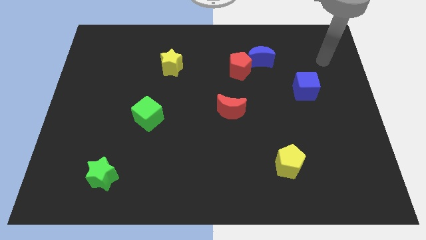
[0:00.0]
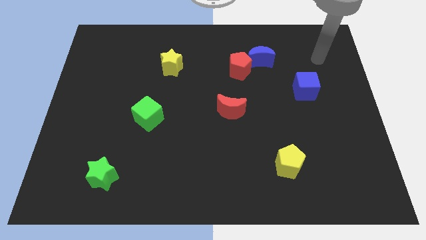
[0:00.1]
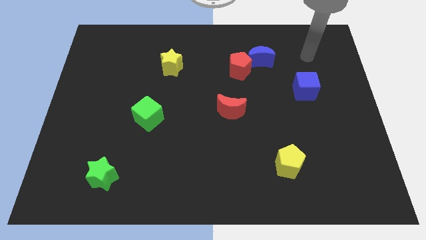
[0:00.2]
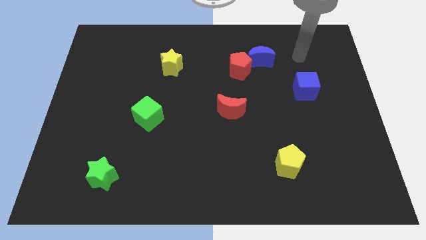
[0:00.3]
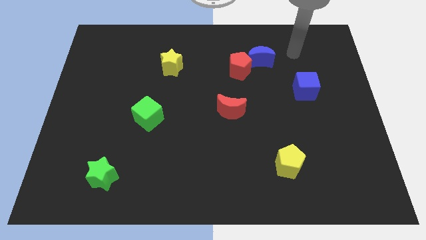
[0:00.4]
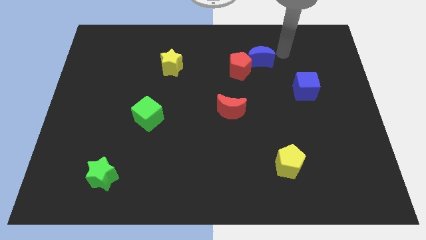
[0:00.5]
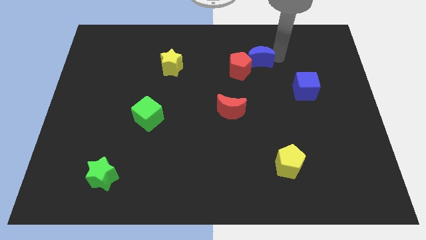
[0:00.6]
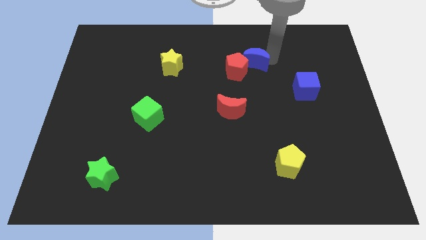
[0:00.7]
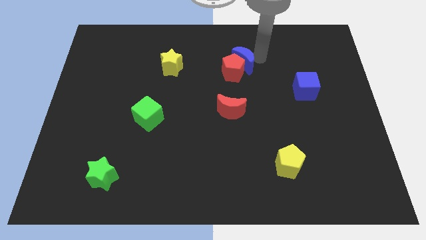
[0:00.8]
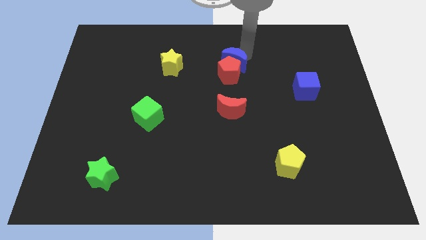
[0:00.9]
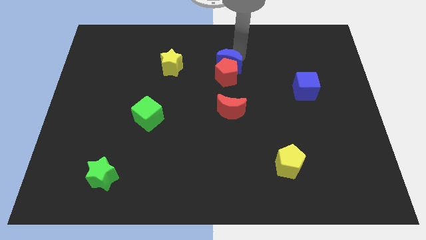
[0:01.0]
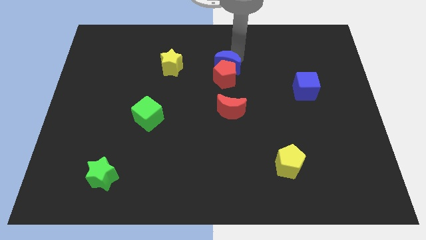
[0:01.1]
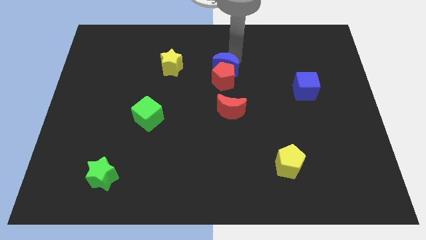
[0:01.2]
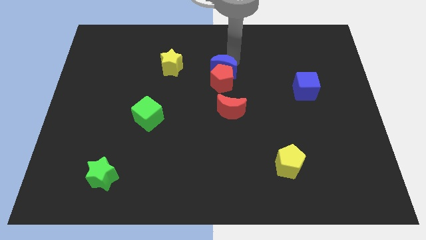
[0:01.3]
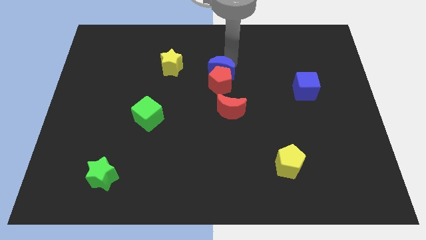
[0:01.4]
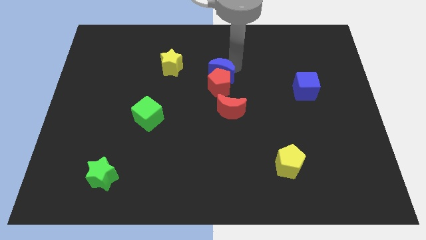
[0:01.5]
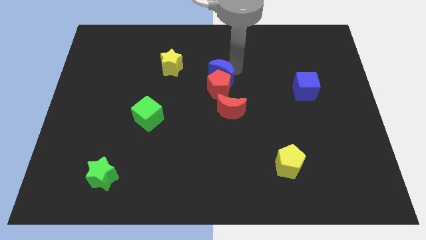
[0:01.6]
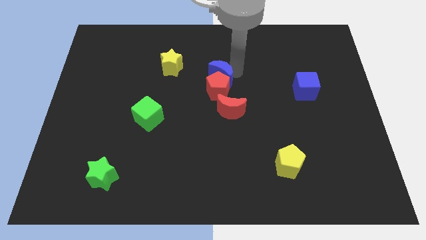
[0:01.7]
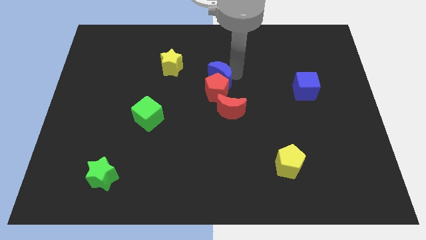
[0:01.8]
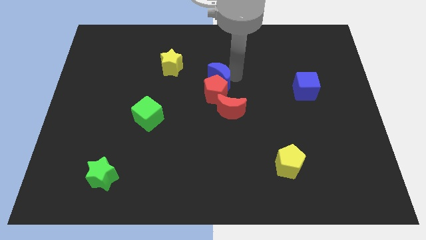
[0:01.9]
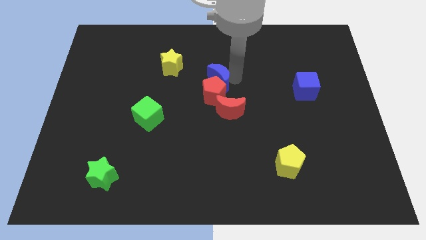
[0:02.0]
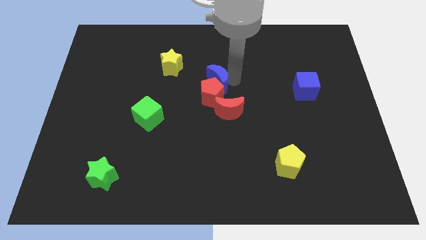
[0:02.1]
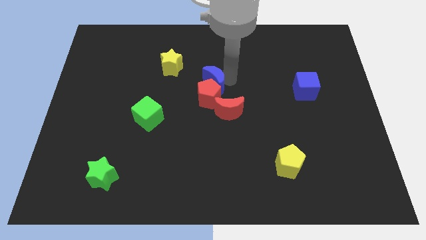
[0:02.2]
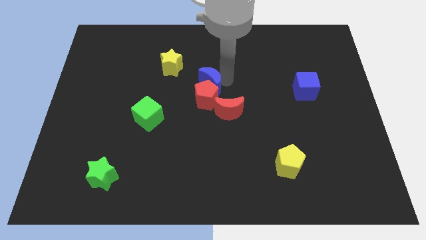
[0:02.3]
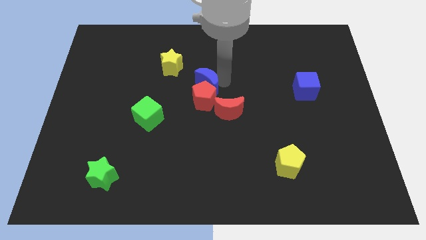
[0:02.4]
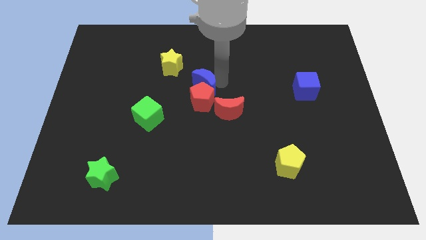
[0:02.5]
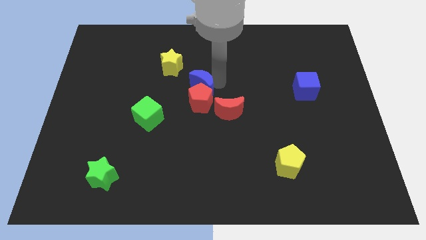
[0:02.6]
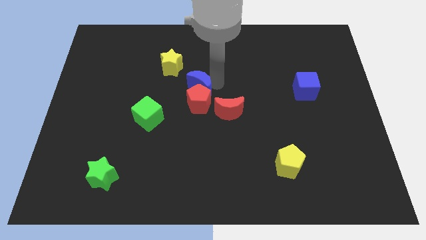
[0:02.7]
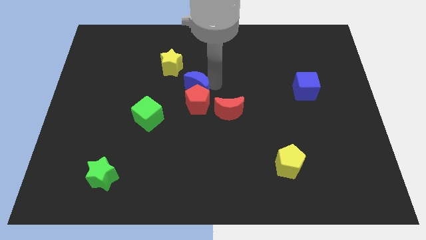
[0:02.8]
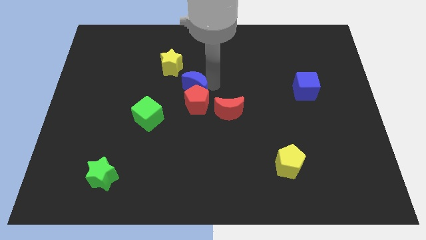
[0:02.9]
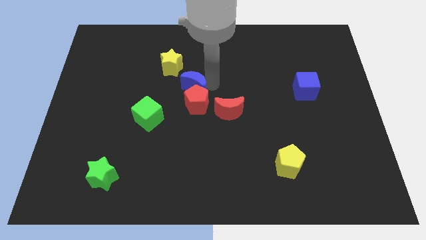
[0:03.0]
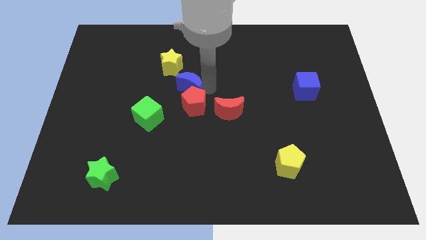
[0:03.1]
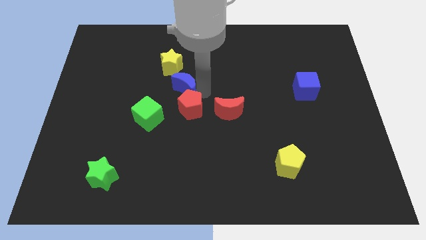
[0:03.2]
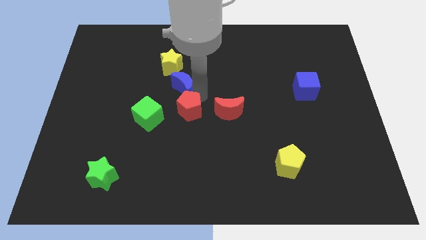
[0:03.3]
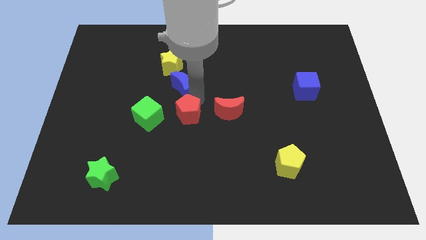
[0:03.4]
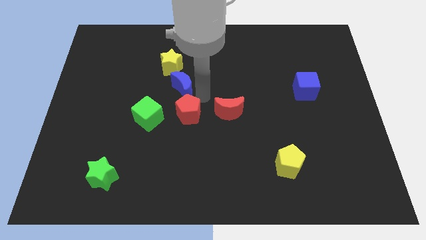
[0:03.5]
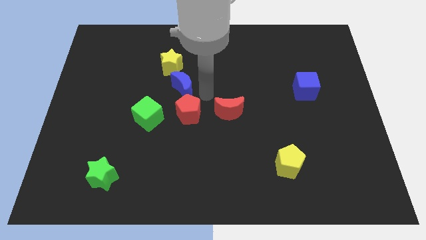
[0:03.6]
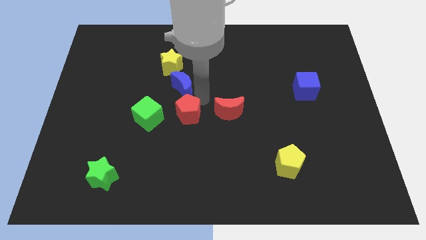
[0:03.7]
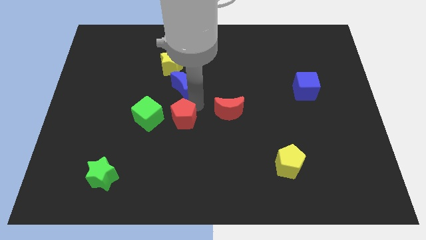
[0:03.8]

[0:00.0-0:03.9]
move the red pentagon downwards and to the left diagonally

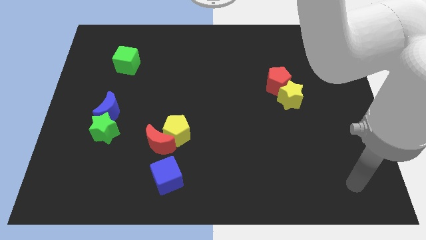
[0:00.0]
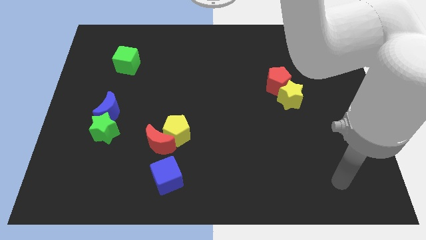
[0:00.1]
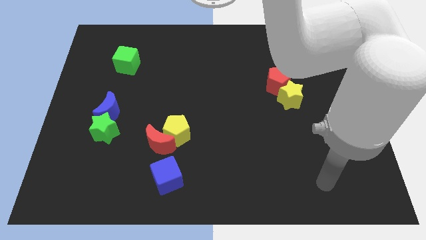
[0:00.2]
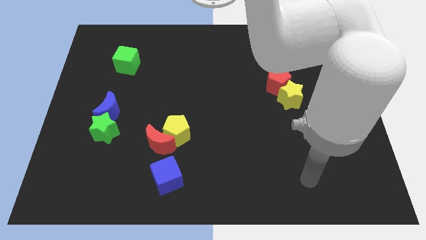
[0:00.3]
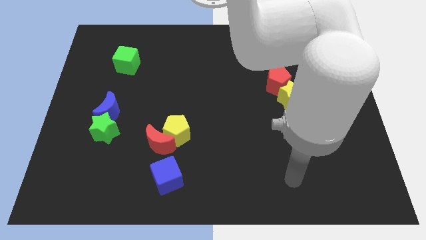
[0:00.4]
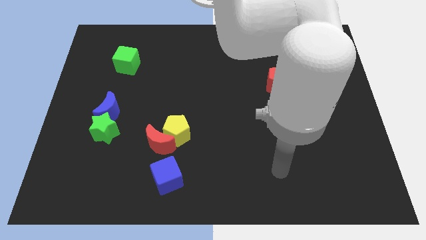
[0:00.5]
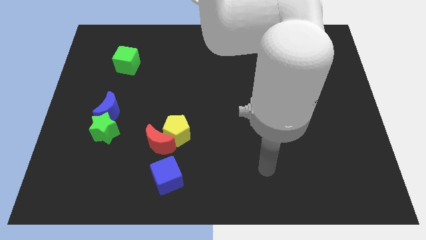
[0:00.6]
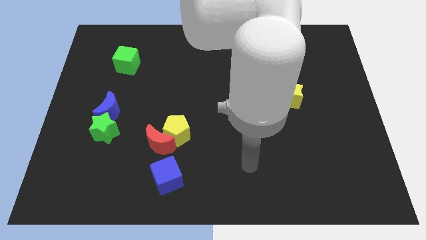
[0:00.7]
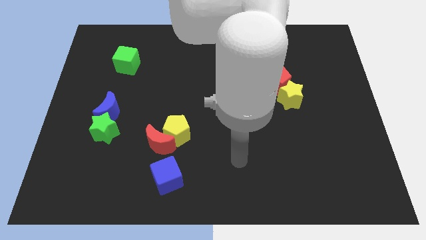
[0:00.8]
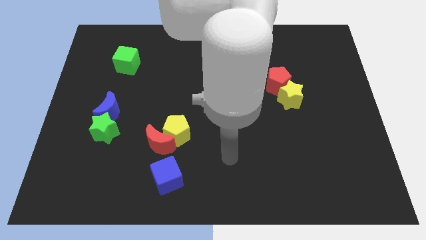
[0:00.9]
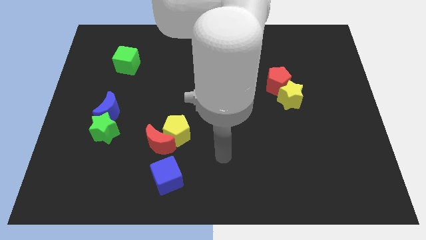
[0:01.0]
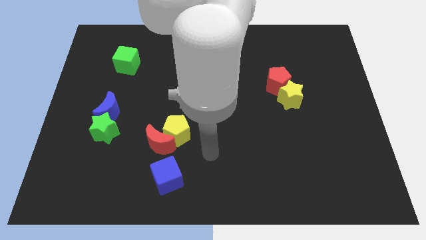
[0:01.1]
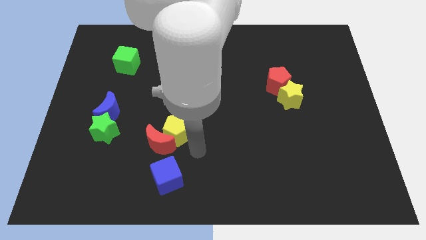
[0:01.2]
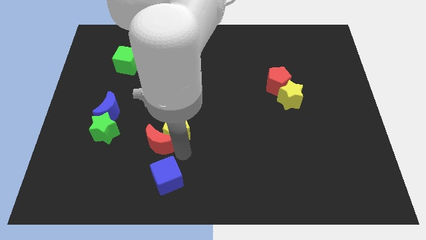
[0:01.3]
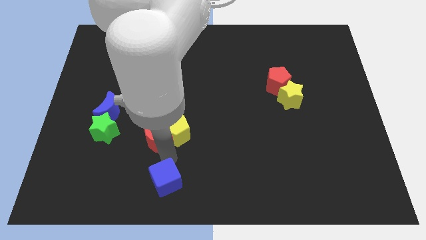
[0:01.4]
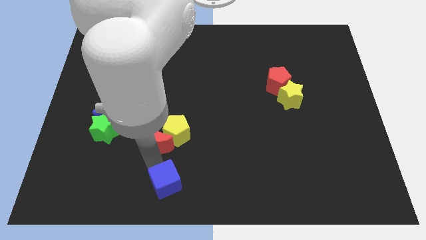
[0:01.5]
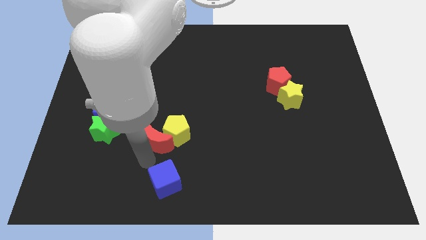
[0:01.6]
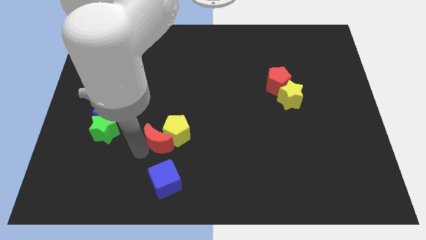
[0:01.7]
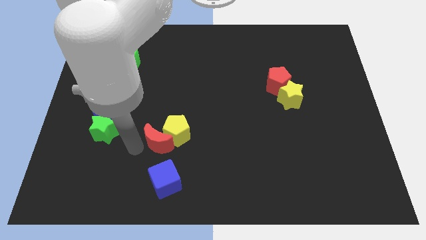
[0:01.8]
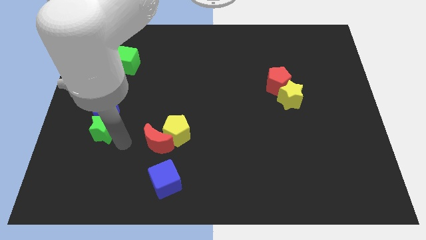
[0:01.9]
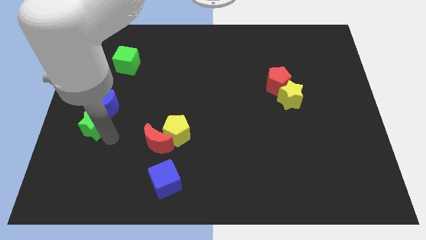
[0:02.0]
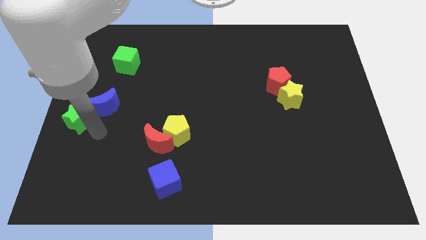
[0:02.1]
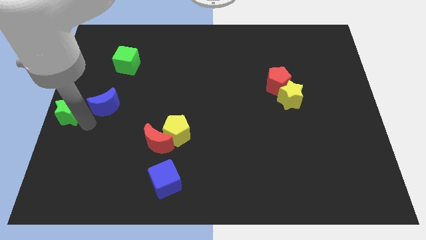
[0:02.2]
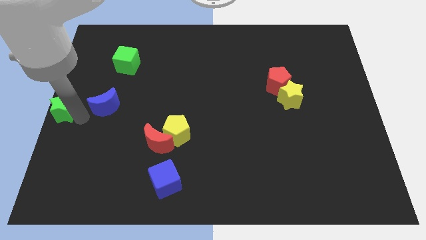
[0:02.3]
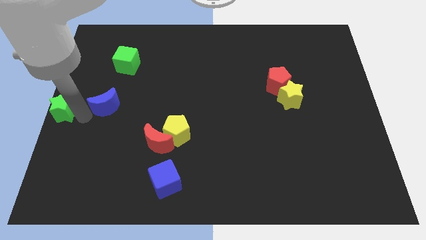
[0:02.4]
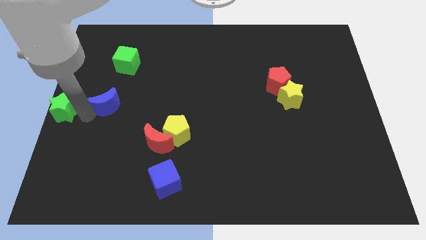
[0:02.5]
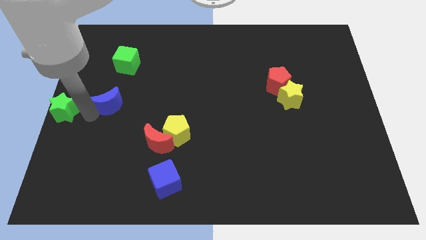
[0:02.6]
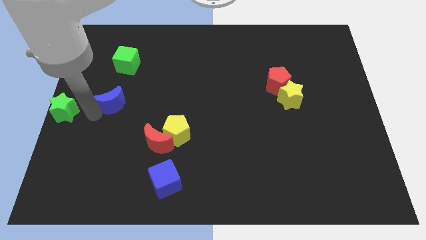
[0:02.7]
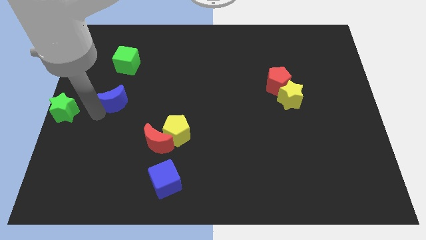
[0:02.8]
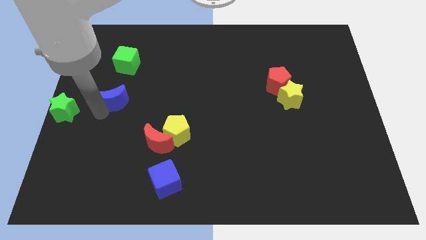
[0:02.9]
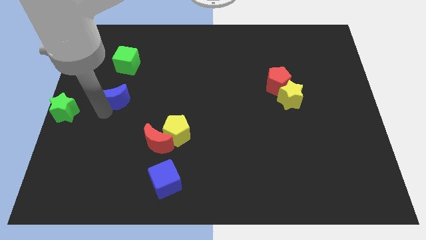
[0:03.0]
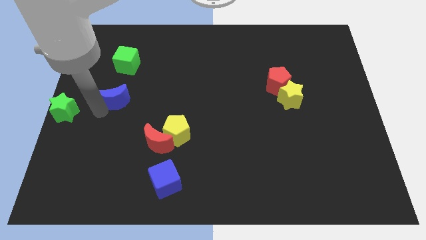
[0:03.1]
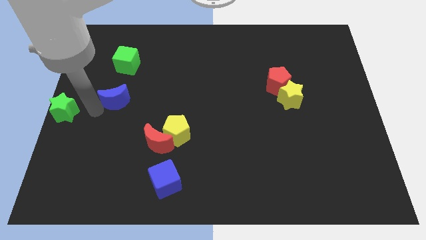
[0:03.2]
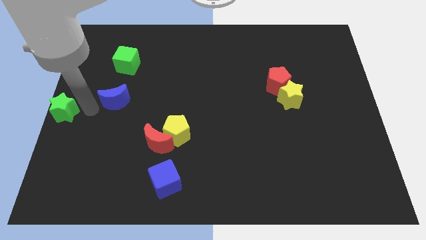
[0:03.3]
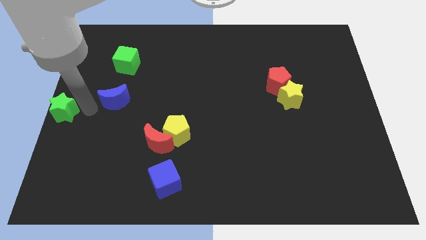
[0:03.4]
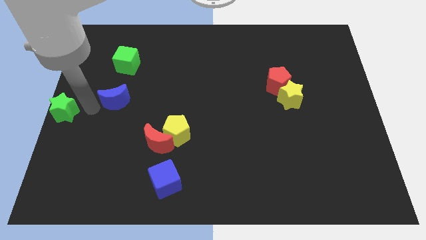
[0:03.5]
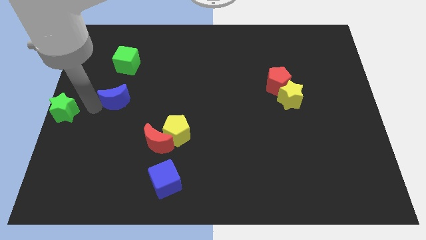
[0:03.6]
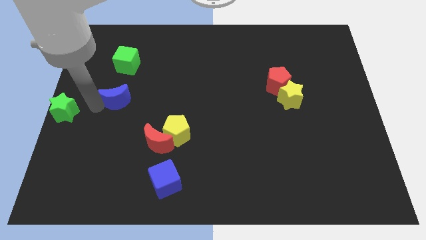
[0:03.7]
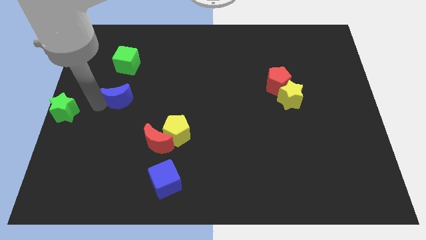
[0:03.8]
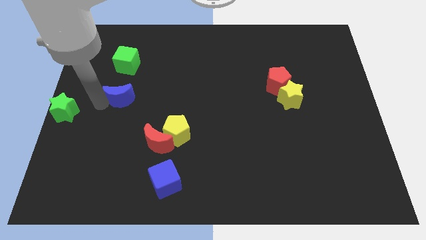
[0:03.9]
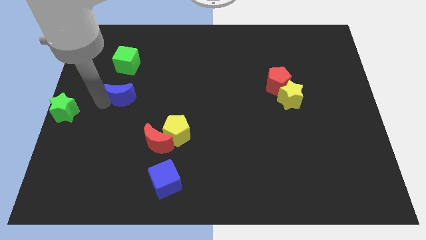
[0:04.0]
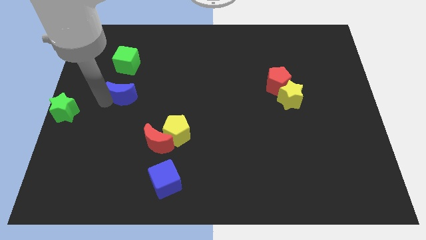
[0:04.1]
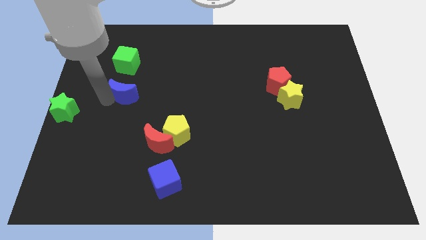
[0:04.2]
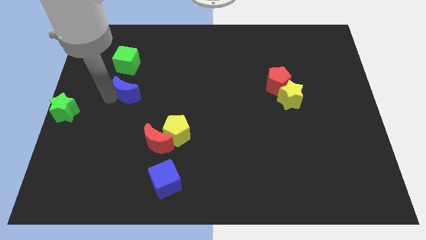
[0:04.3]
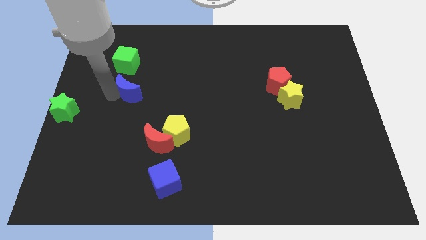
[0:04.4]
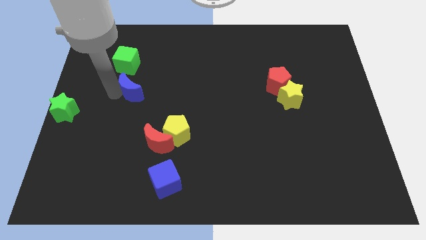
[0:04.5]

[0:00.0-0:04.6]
slightly move the blue moon upwards and then right
